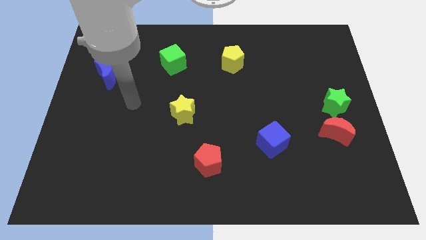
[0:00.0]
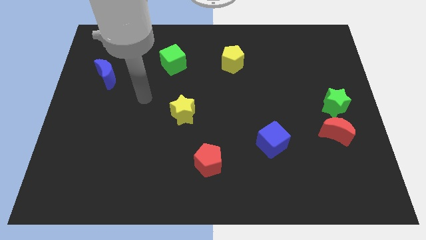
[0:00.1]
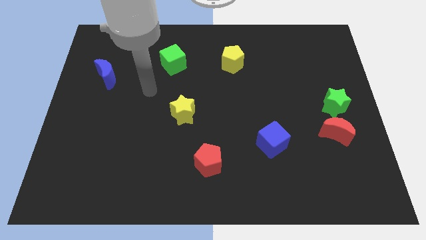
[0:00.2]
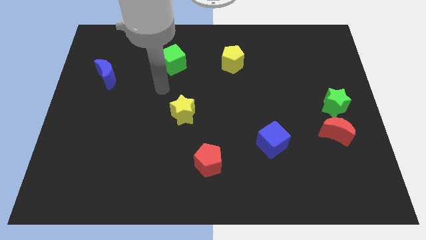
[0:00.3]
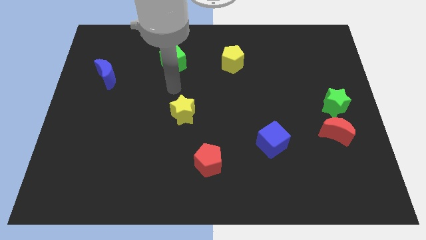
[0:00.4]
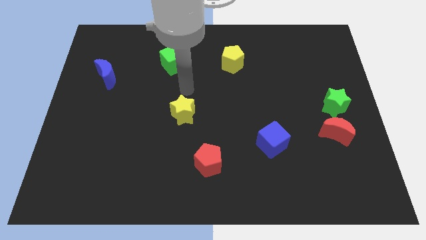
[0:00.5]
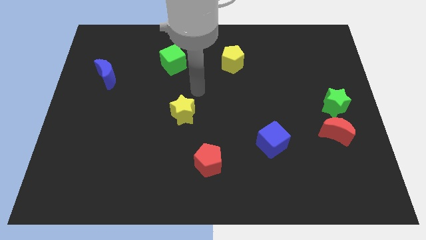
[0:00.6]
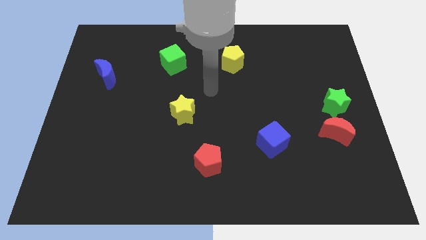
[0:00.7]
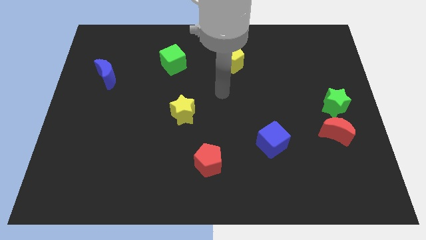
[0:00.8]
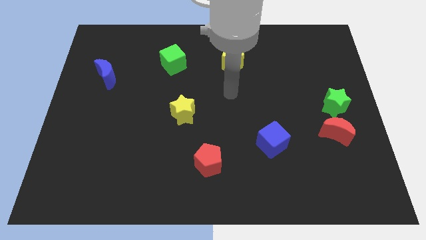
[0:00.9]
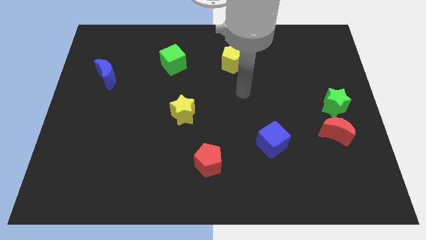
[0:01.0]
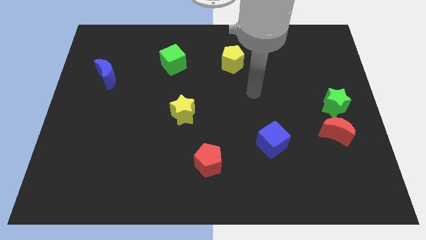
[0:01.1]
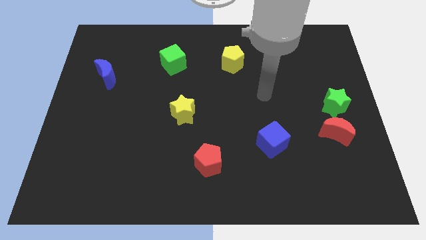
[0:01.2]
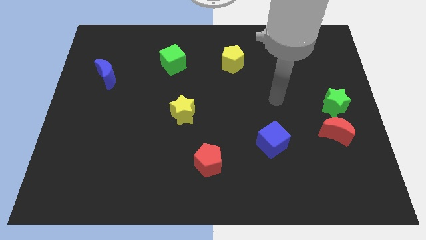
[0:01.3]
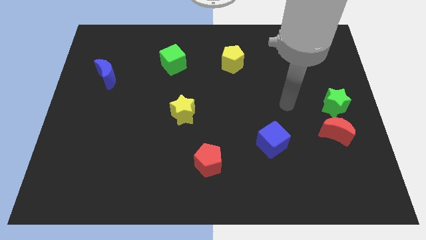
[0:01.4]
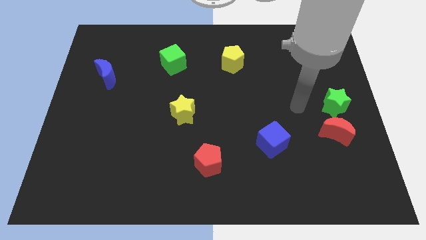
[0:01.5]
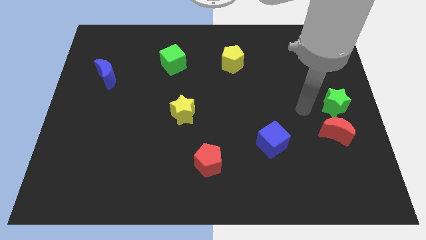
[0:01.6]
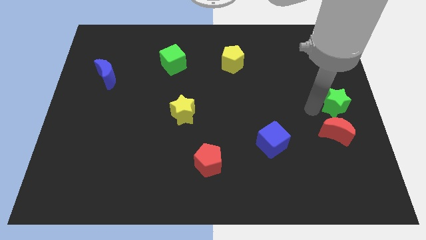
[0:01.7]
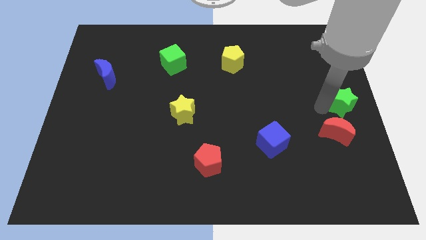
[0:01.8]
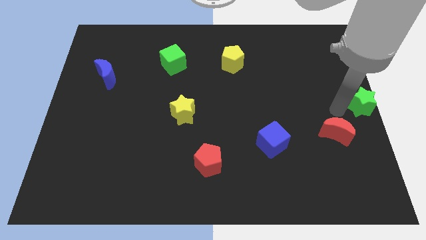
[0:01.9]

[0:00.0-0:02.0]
separate the red moon from the green star

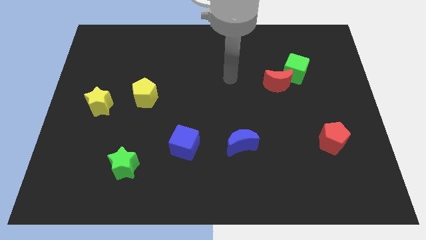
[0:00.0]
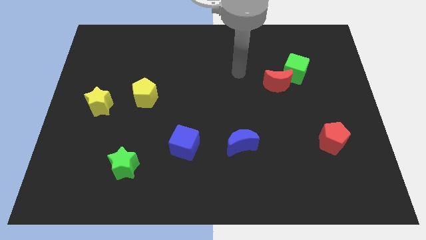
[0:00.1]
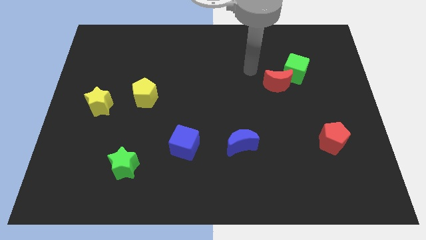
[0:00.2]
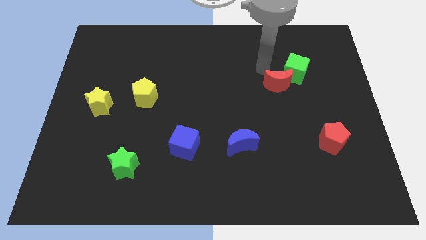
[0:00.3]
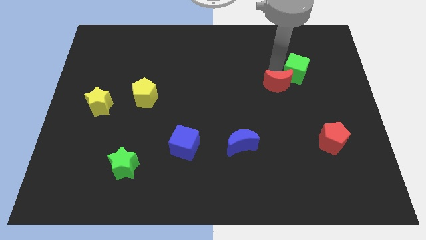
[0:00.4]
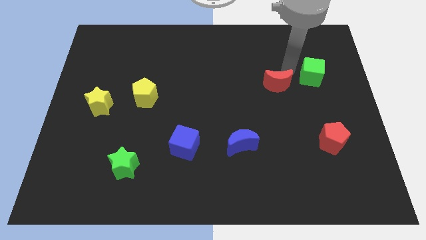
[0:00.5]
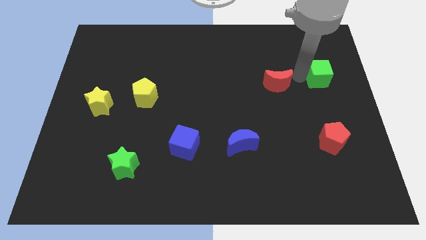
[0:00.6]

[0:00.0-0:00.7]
separate the red moon from the green cube

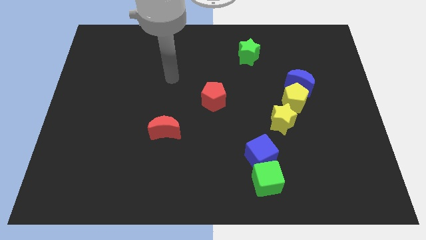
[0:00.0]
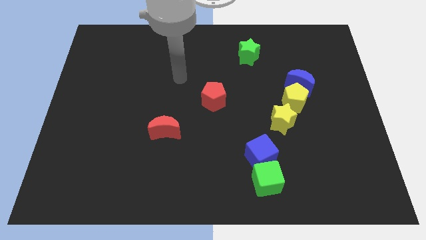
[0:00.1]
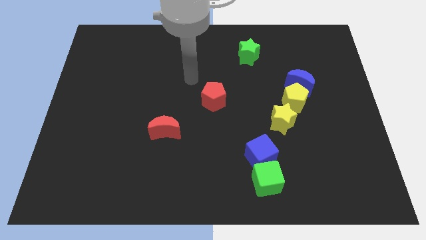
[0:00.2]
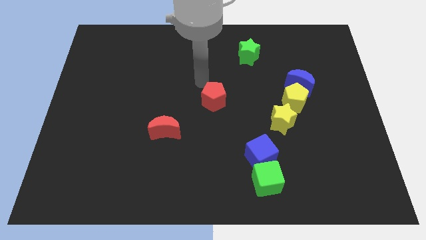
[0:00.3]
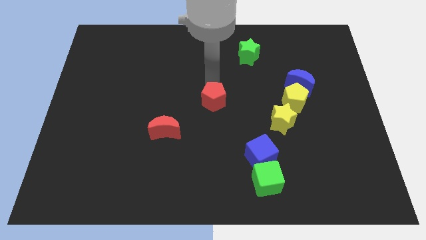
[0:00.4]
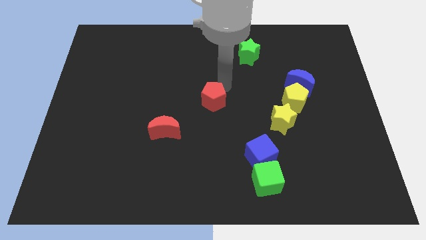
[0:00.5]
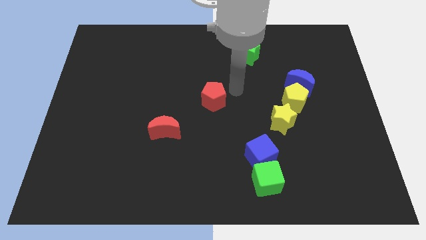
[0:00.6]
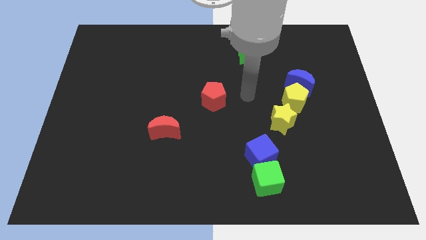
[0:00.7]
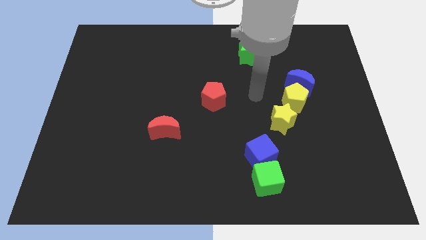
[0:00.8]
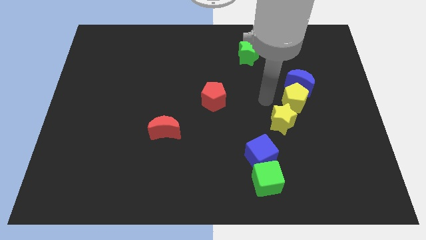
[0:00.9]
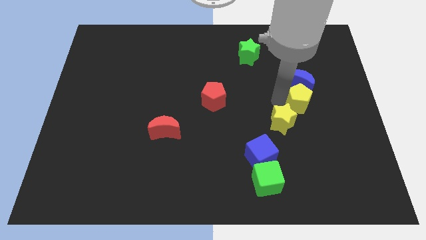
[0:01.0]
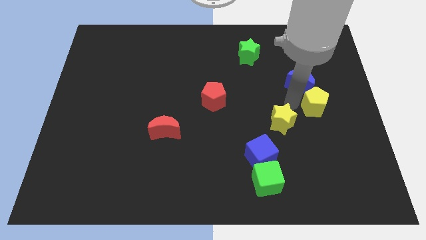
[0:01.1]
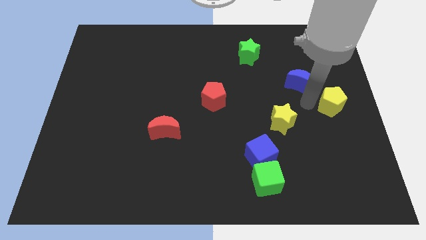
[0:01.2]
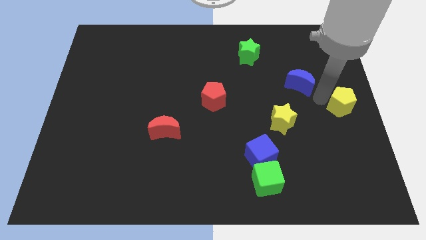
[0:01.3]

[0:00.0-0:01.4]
move the blue moon away from the yellow pentagon

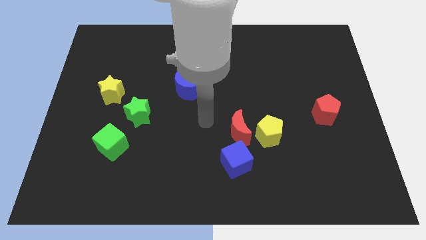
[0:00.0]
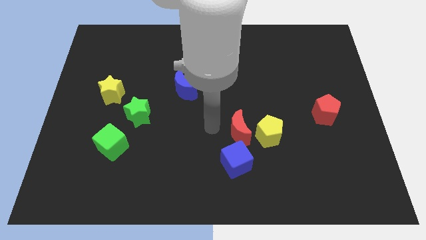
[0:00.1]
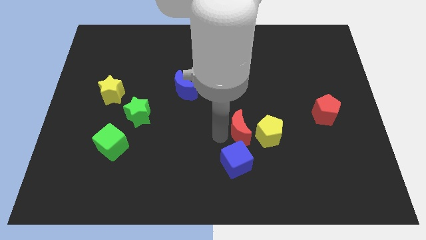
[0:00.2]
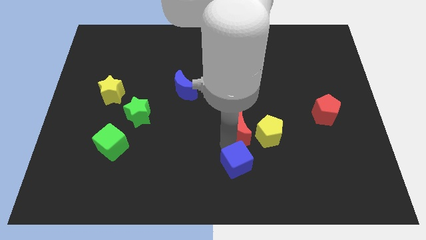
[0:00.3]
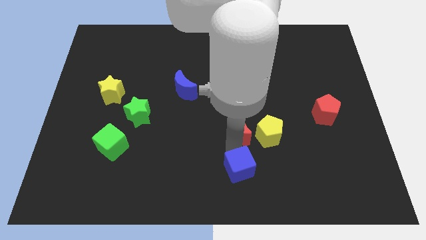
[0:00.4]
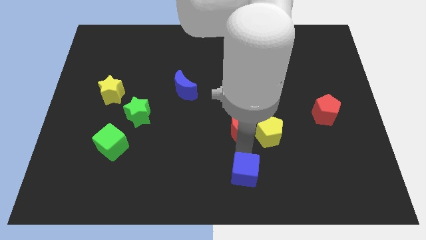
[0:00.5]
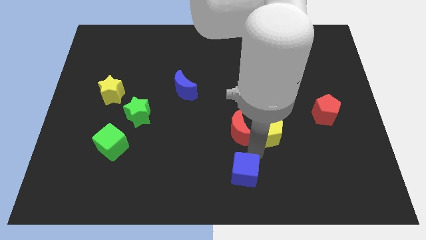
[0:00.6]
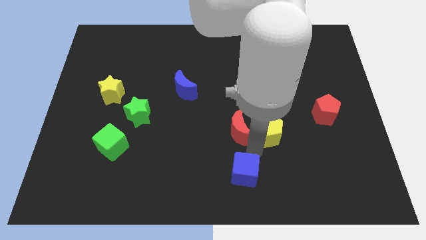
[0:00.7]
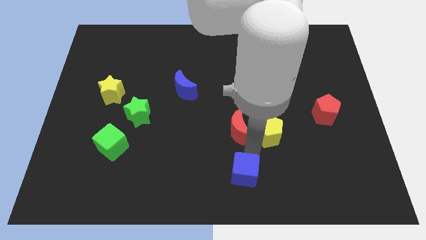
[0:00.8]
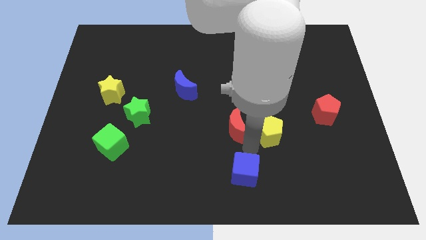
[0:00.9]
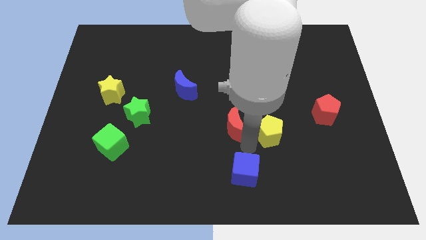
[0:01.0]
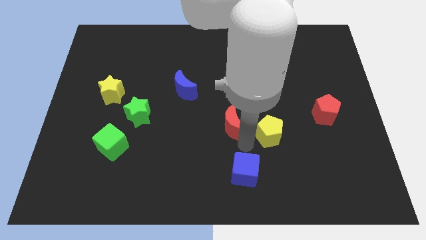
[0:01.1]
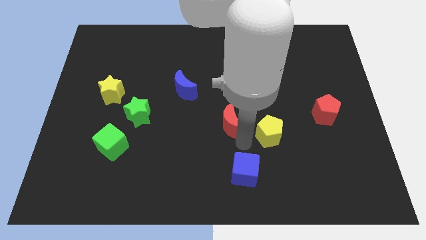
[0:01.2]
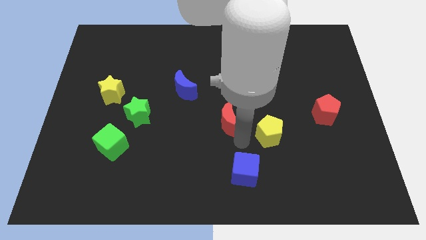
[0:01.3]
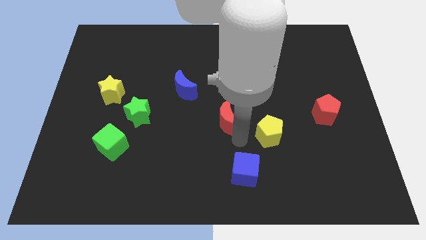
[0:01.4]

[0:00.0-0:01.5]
separate the red moon from the yellow pentagon and blue cube

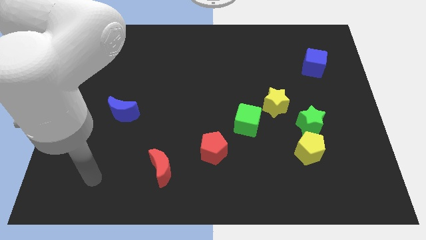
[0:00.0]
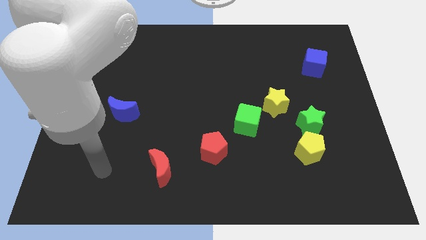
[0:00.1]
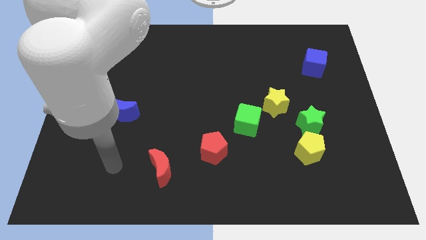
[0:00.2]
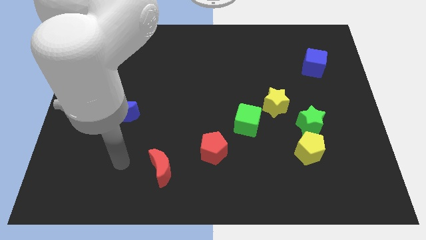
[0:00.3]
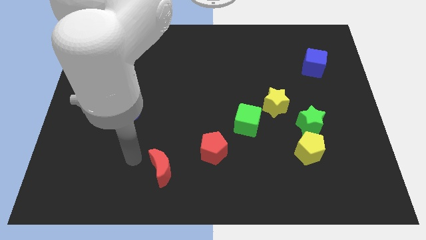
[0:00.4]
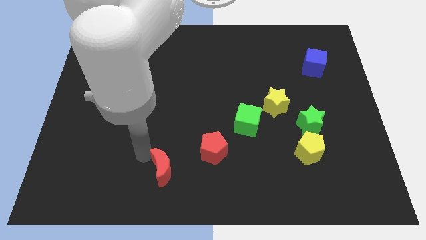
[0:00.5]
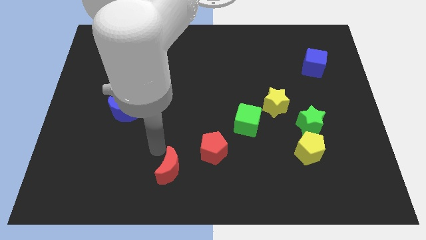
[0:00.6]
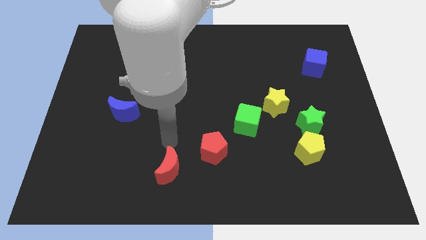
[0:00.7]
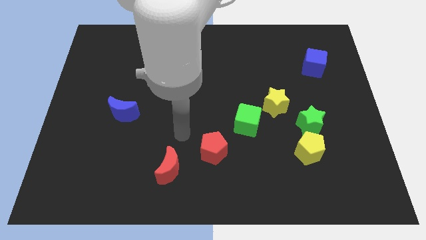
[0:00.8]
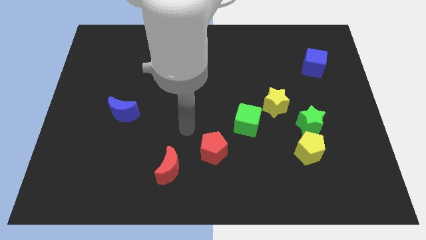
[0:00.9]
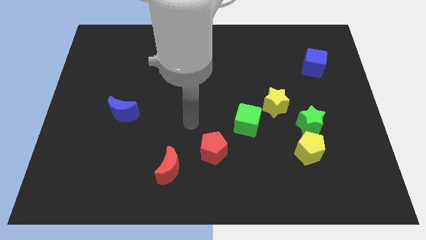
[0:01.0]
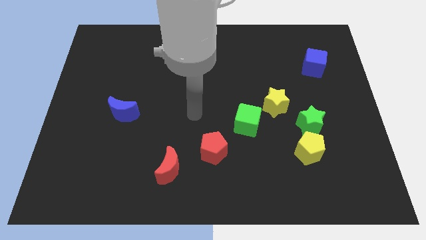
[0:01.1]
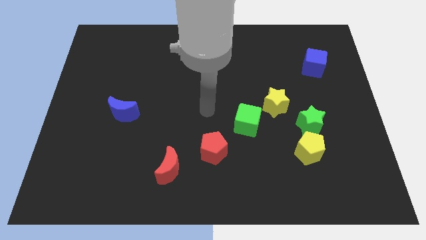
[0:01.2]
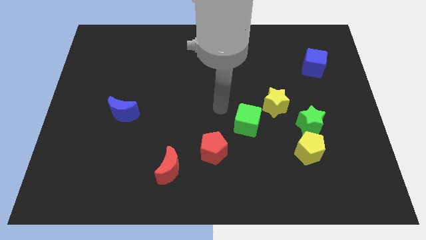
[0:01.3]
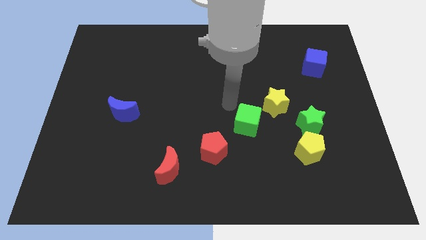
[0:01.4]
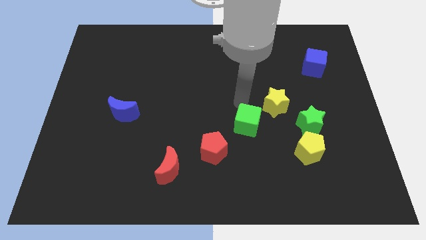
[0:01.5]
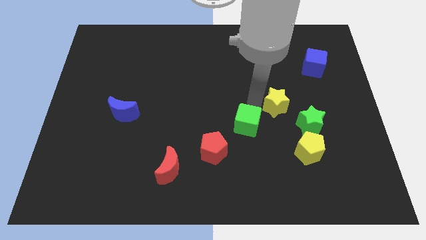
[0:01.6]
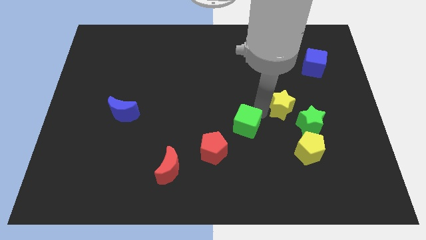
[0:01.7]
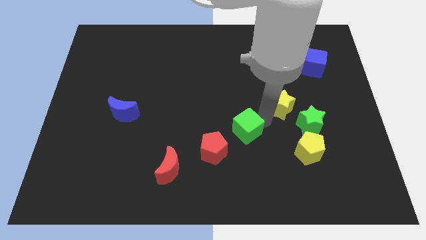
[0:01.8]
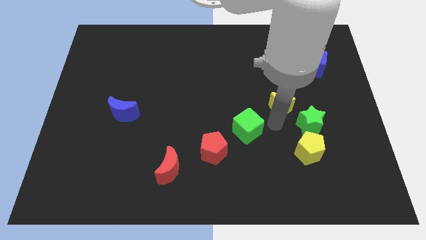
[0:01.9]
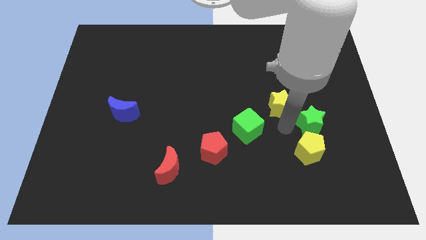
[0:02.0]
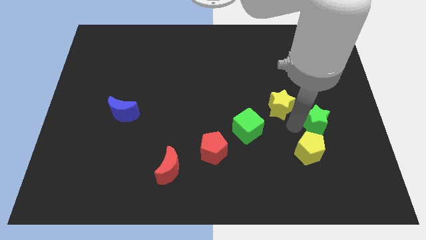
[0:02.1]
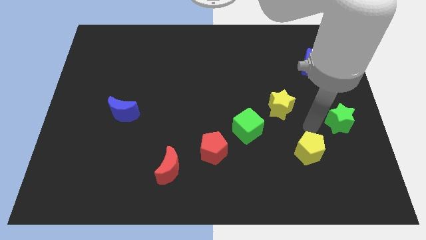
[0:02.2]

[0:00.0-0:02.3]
separate the yellow pentagon from the green star

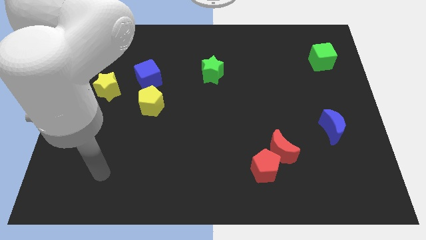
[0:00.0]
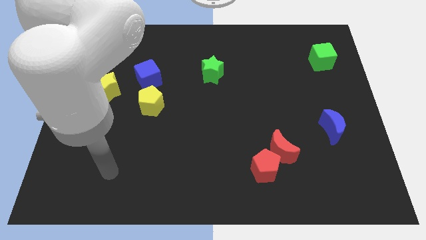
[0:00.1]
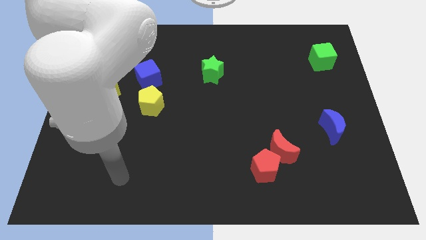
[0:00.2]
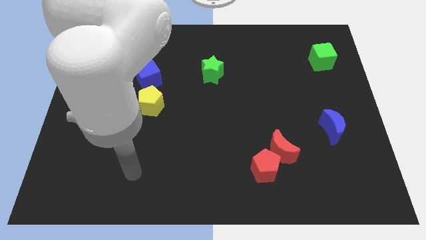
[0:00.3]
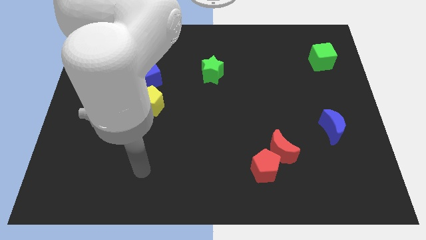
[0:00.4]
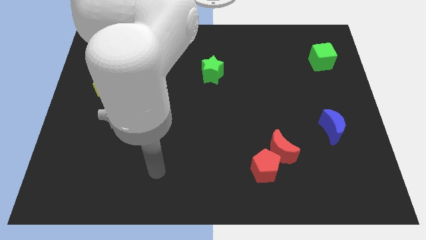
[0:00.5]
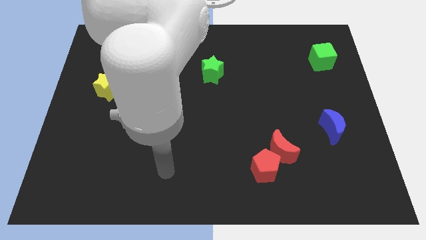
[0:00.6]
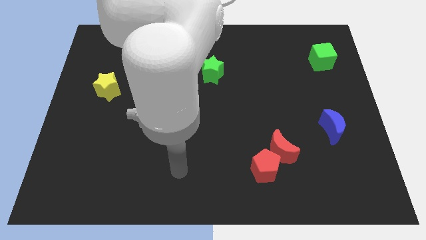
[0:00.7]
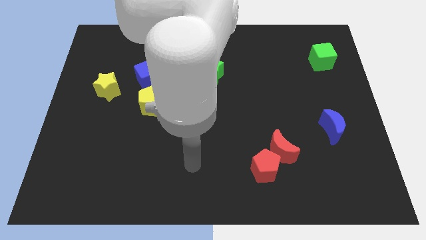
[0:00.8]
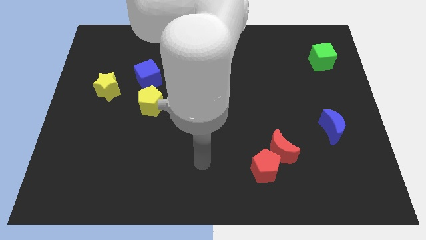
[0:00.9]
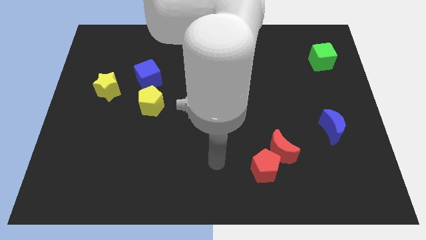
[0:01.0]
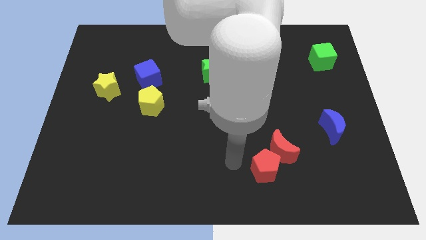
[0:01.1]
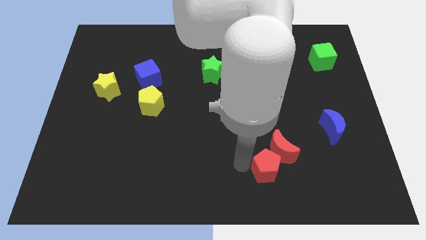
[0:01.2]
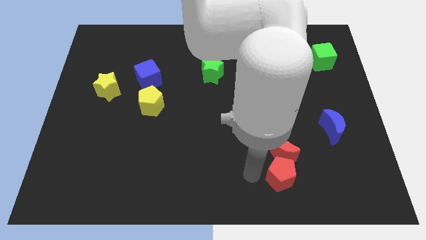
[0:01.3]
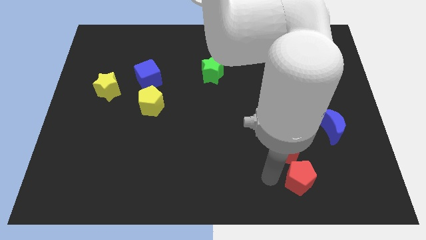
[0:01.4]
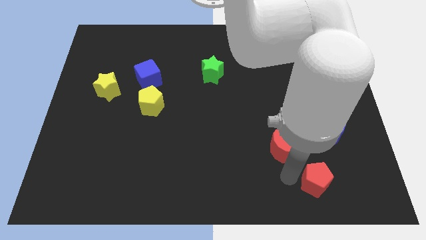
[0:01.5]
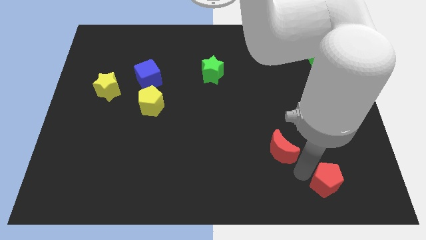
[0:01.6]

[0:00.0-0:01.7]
pull the red moon apart from the red pentagon
